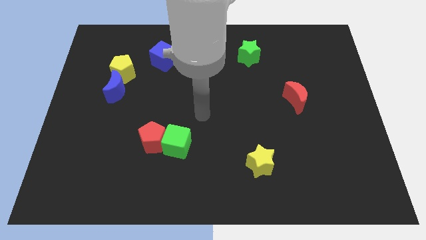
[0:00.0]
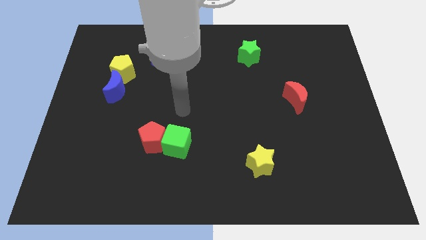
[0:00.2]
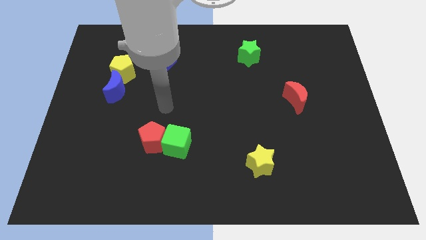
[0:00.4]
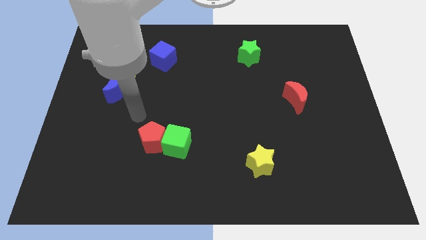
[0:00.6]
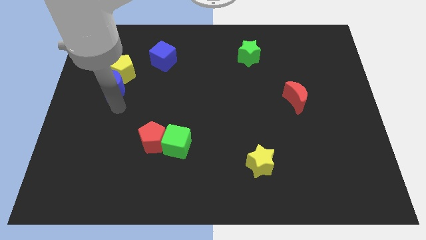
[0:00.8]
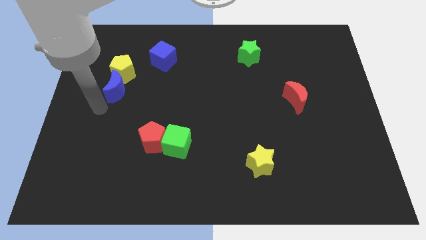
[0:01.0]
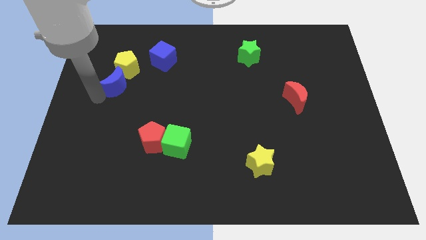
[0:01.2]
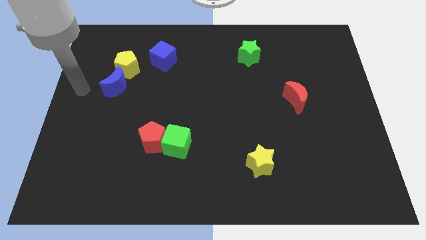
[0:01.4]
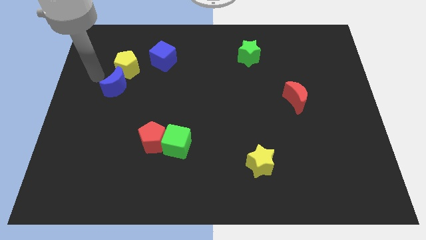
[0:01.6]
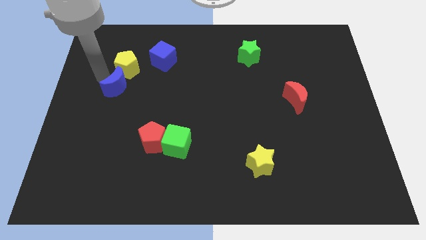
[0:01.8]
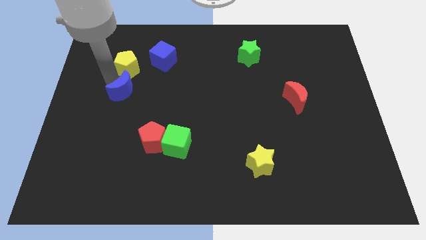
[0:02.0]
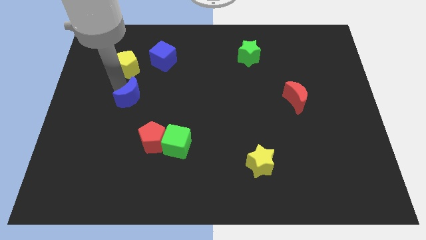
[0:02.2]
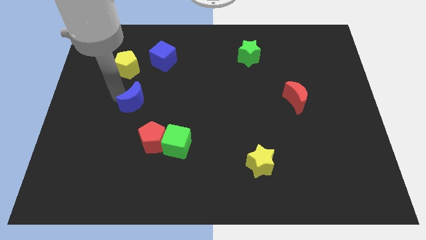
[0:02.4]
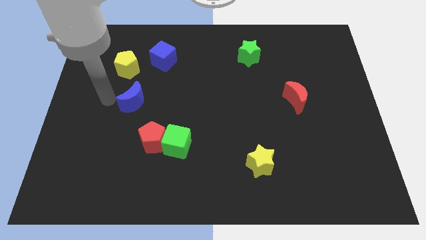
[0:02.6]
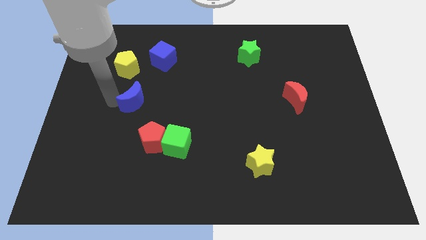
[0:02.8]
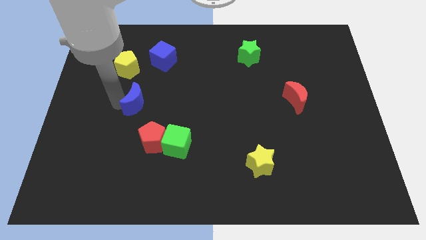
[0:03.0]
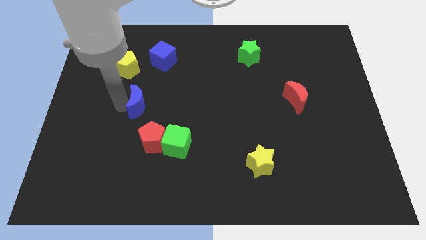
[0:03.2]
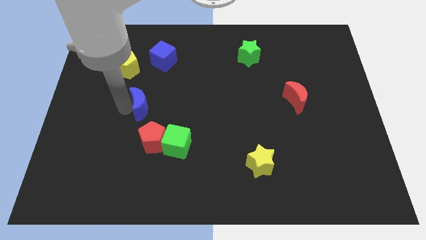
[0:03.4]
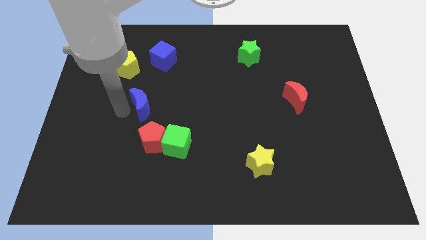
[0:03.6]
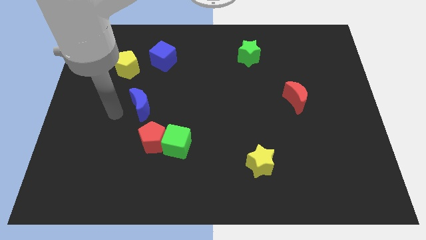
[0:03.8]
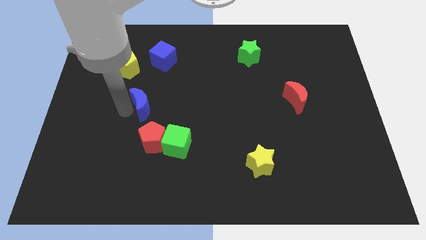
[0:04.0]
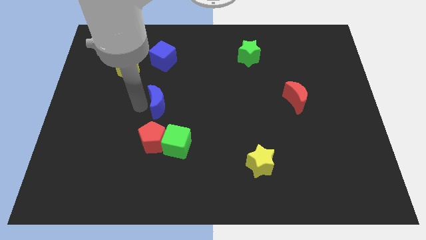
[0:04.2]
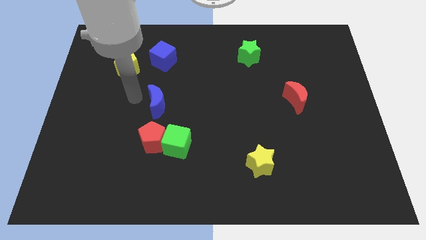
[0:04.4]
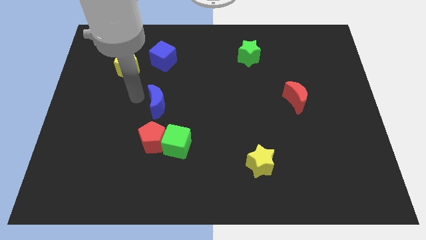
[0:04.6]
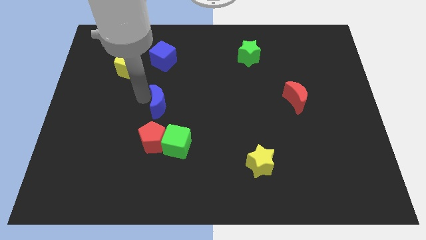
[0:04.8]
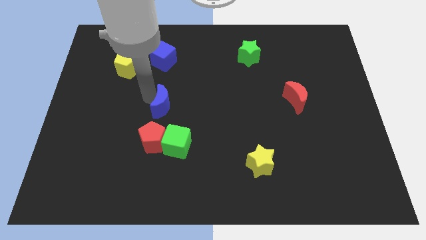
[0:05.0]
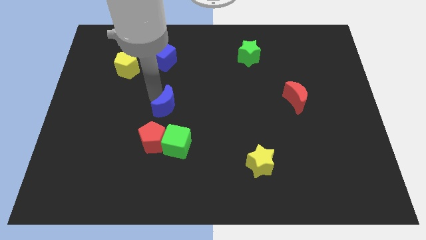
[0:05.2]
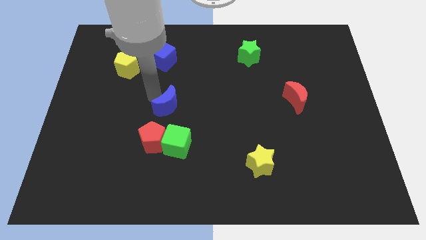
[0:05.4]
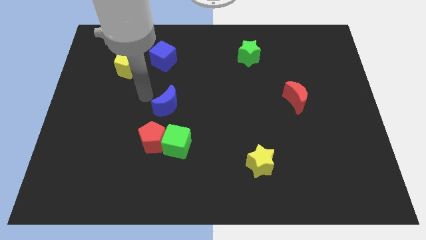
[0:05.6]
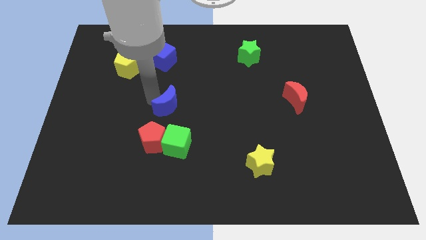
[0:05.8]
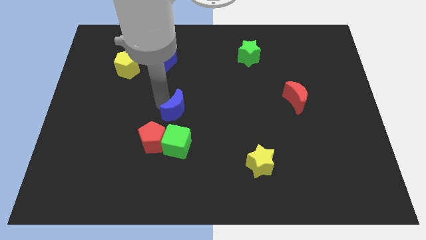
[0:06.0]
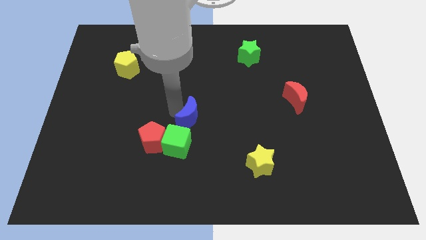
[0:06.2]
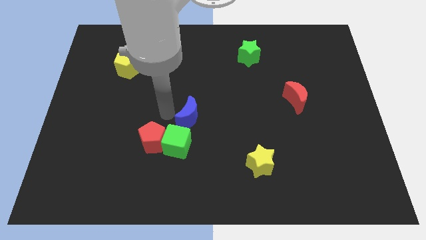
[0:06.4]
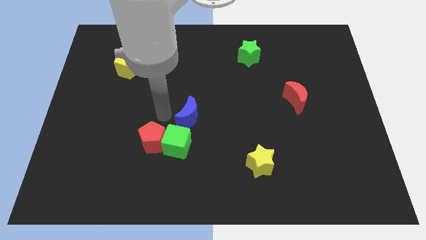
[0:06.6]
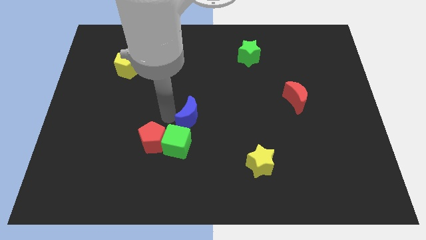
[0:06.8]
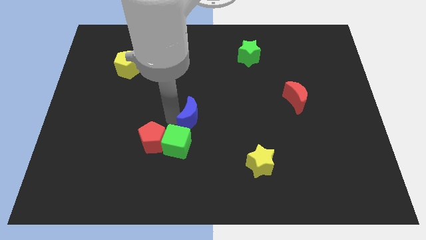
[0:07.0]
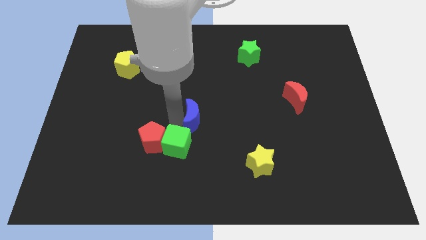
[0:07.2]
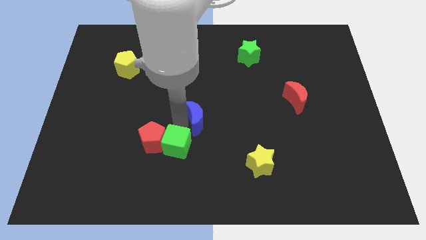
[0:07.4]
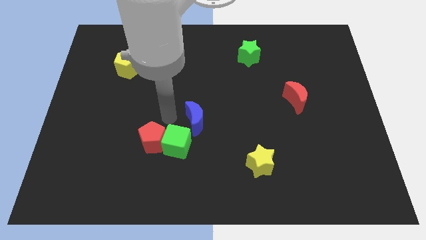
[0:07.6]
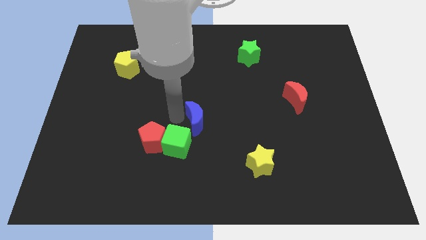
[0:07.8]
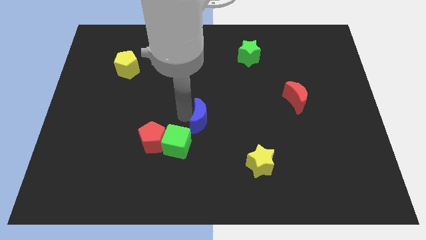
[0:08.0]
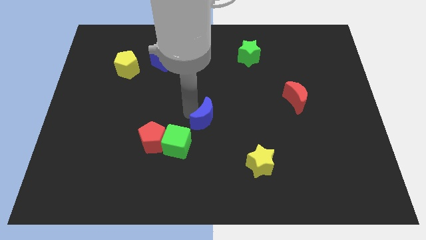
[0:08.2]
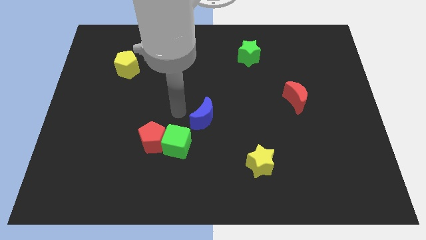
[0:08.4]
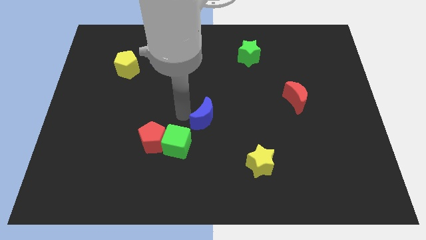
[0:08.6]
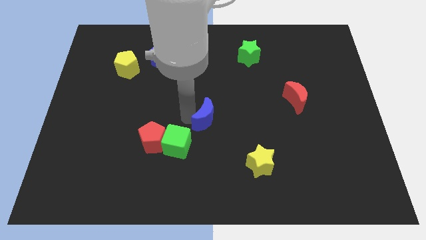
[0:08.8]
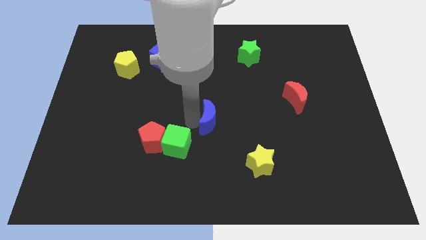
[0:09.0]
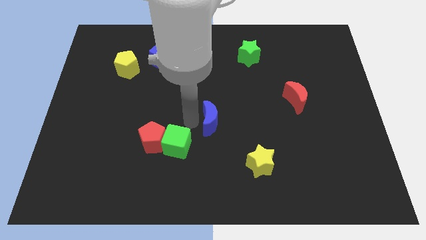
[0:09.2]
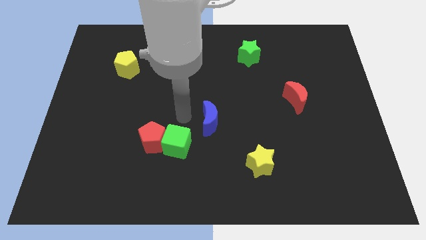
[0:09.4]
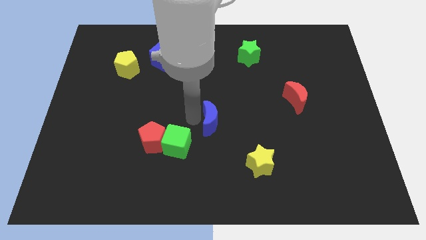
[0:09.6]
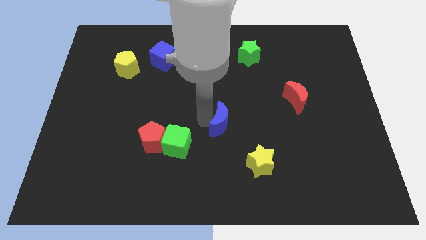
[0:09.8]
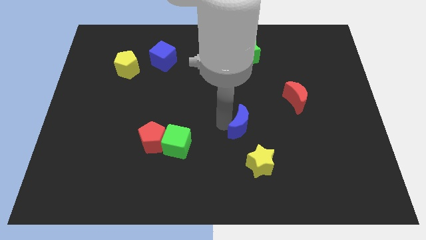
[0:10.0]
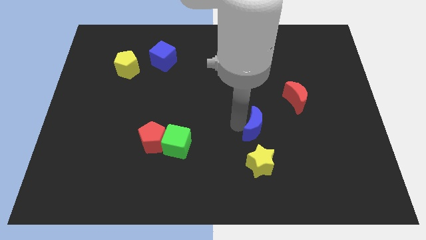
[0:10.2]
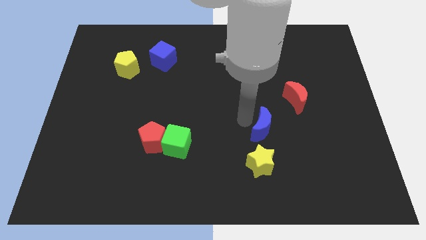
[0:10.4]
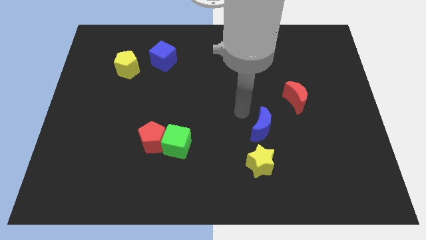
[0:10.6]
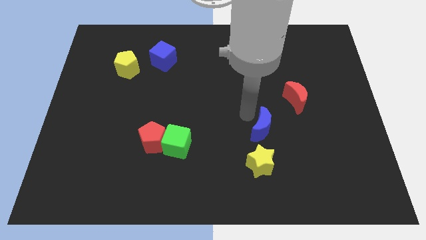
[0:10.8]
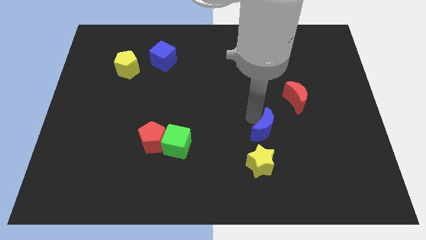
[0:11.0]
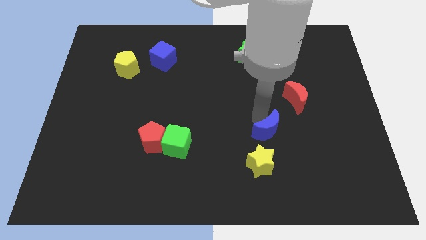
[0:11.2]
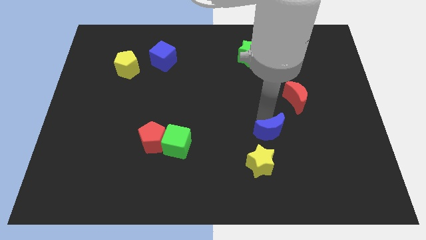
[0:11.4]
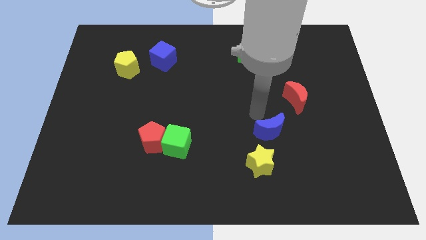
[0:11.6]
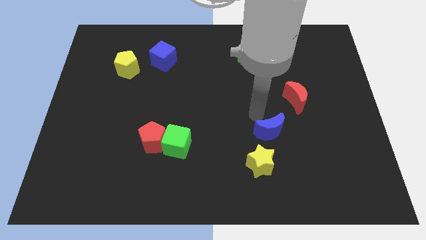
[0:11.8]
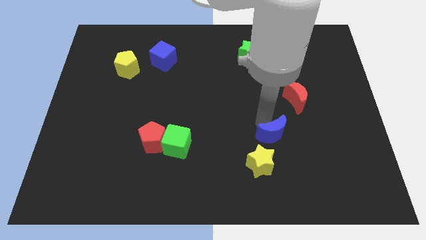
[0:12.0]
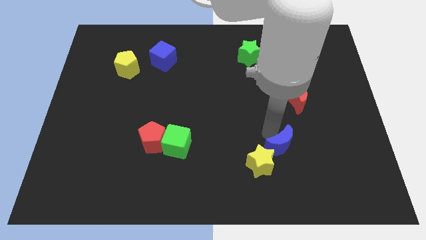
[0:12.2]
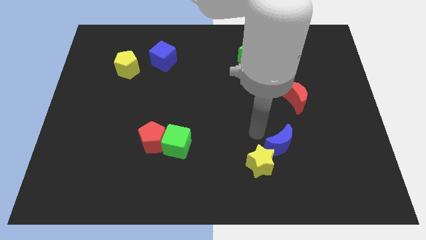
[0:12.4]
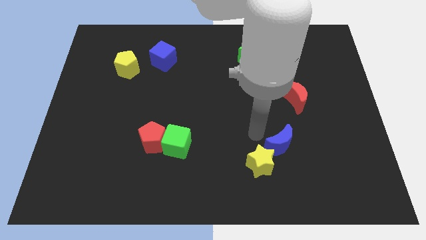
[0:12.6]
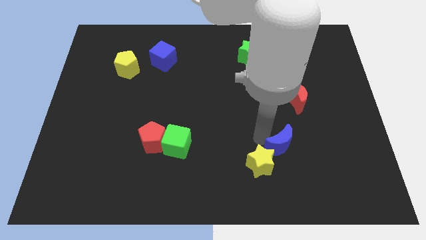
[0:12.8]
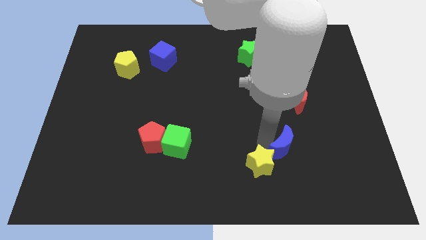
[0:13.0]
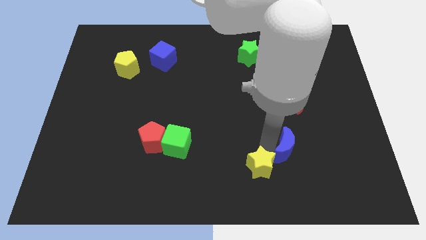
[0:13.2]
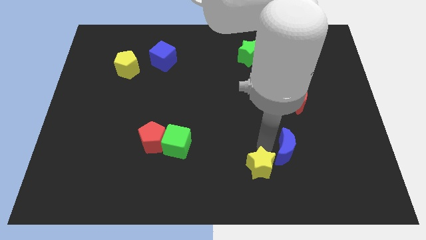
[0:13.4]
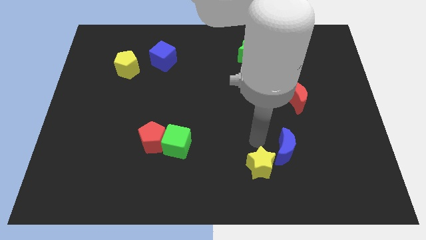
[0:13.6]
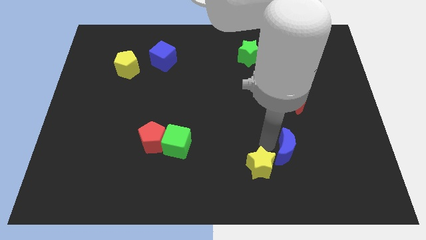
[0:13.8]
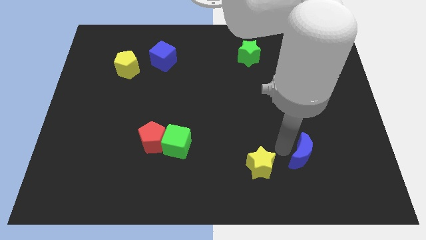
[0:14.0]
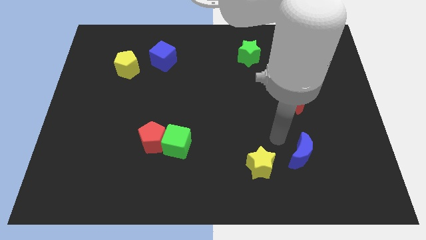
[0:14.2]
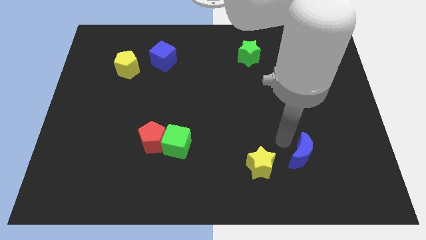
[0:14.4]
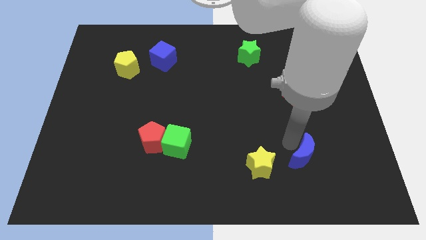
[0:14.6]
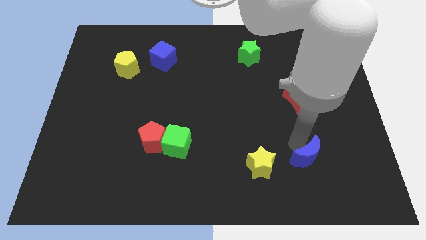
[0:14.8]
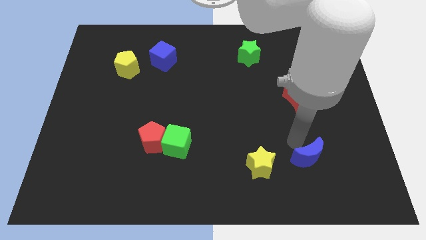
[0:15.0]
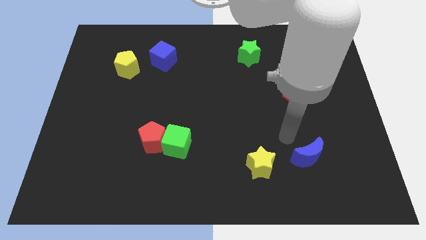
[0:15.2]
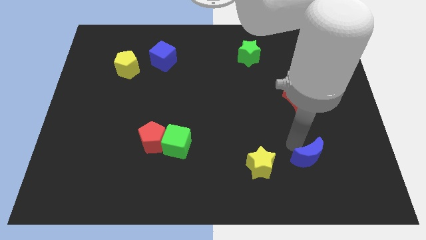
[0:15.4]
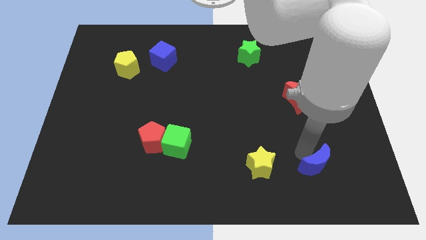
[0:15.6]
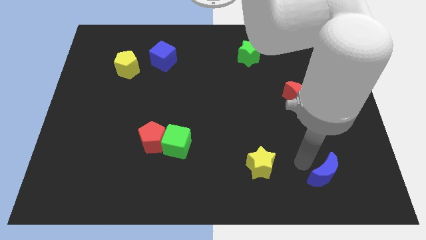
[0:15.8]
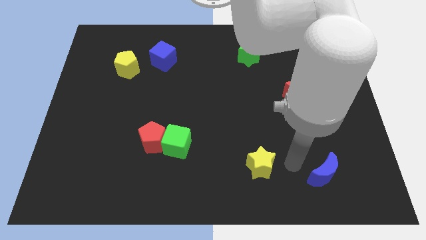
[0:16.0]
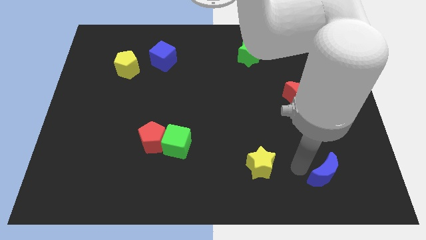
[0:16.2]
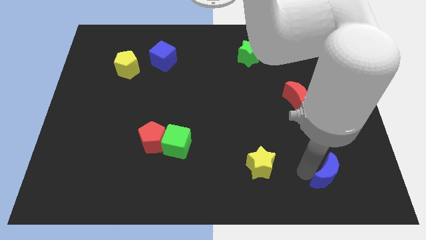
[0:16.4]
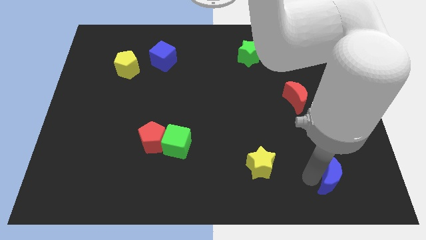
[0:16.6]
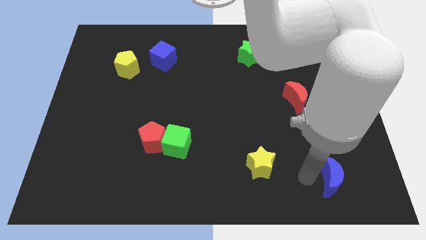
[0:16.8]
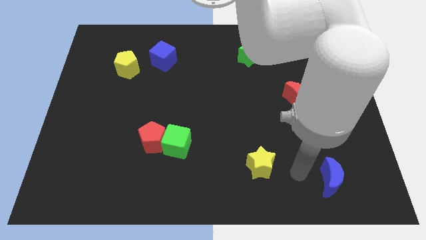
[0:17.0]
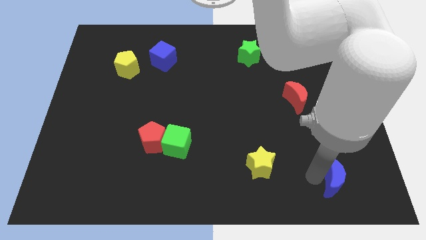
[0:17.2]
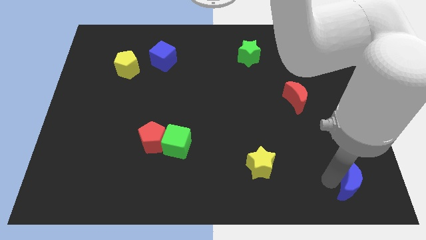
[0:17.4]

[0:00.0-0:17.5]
move the blue moon to the bottom right corner
